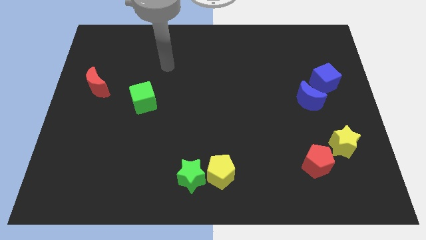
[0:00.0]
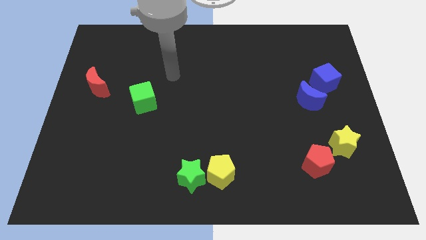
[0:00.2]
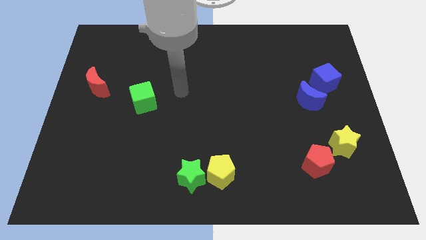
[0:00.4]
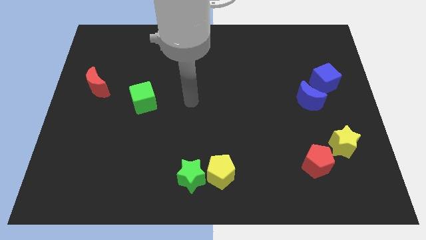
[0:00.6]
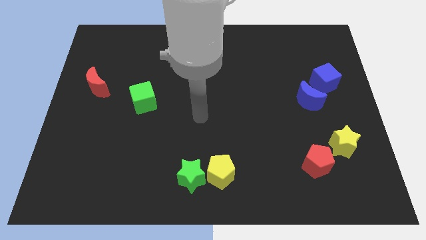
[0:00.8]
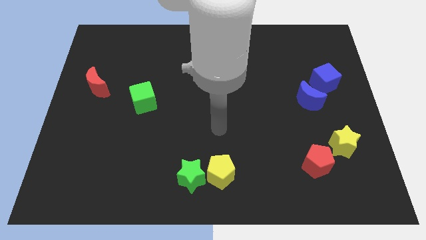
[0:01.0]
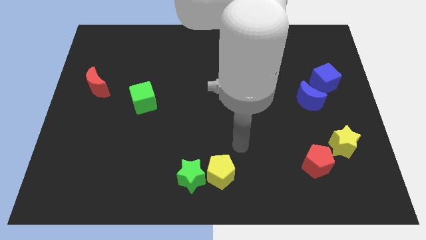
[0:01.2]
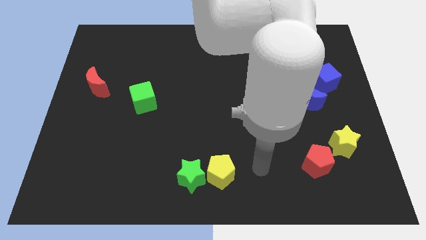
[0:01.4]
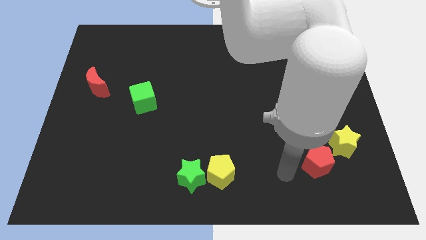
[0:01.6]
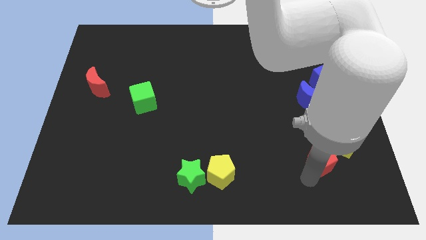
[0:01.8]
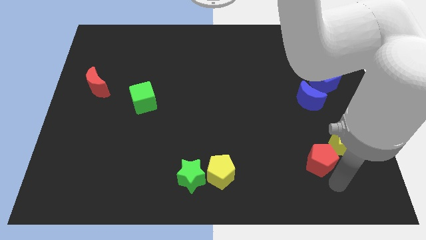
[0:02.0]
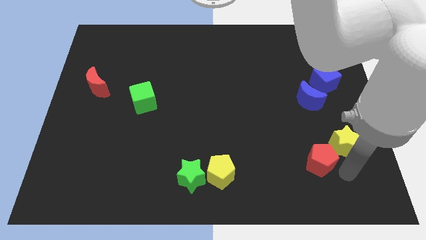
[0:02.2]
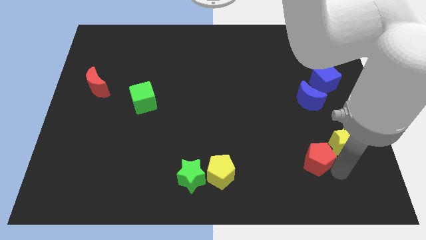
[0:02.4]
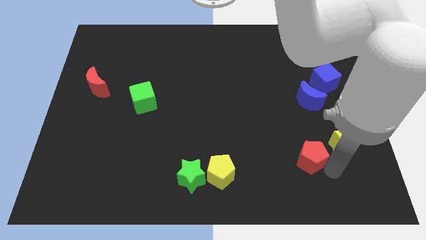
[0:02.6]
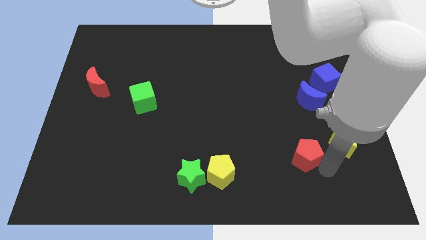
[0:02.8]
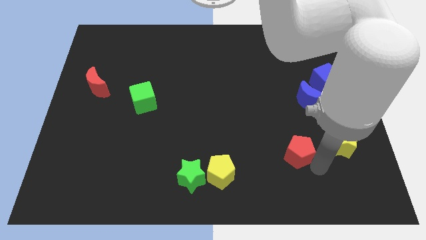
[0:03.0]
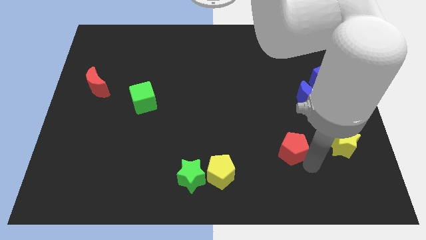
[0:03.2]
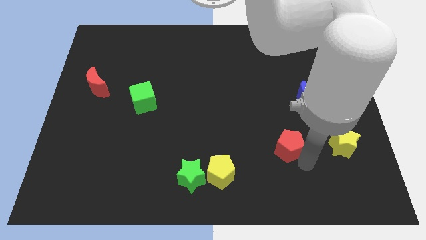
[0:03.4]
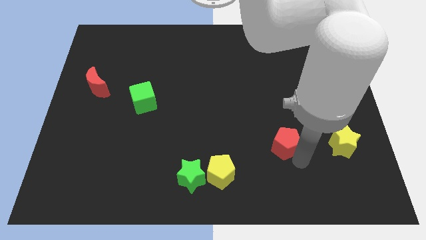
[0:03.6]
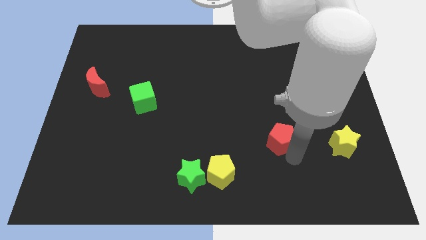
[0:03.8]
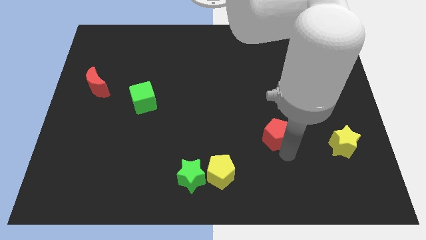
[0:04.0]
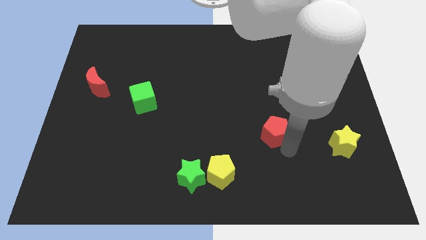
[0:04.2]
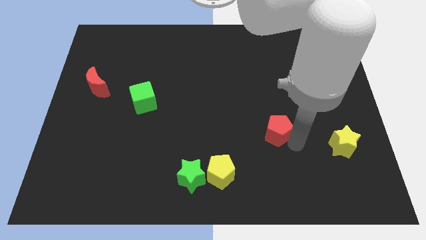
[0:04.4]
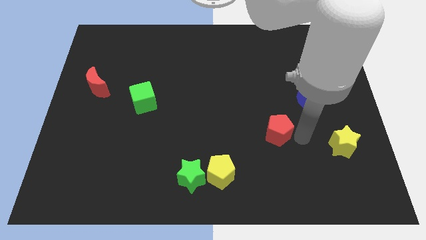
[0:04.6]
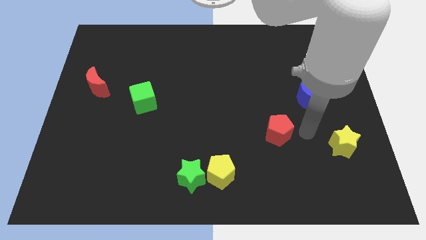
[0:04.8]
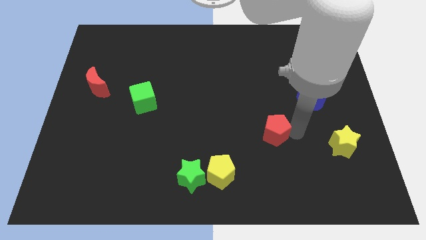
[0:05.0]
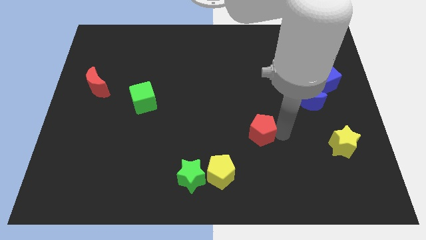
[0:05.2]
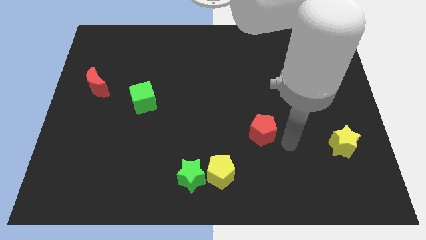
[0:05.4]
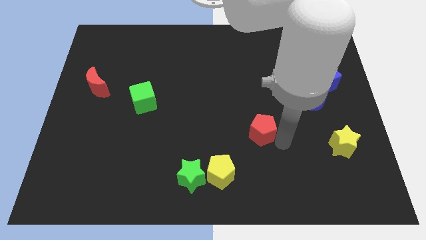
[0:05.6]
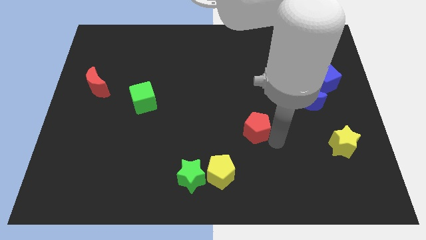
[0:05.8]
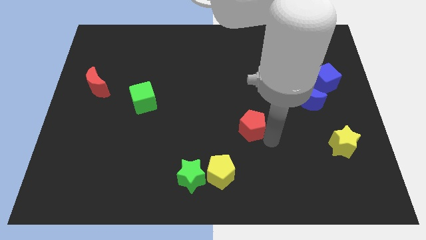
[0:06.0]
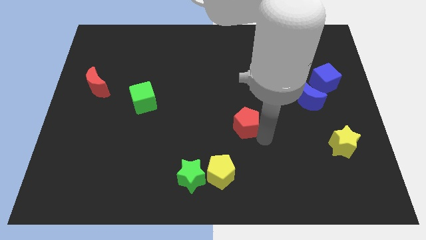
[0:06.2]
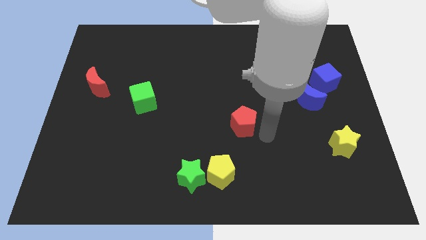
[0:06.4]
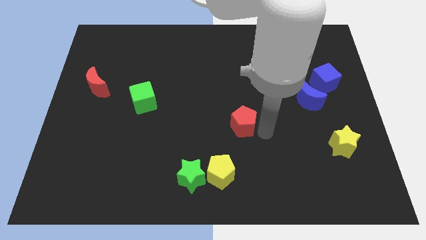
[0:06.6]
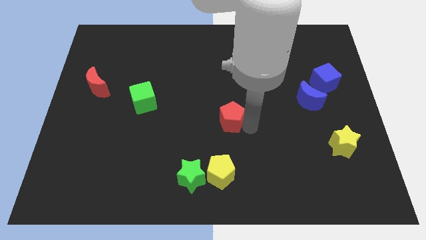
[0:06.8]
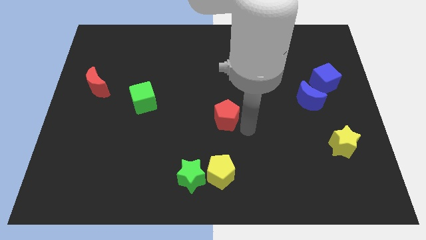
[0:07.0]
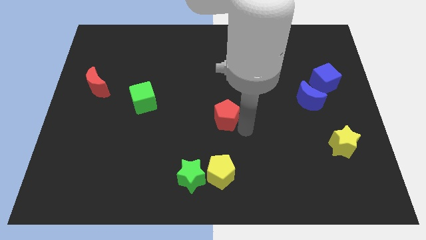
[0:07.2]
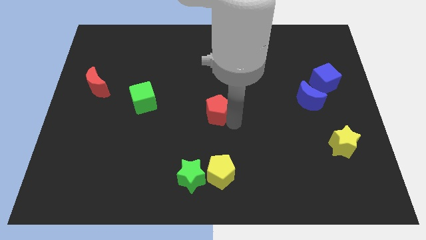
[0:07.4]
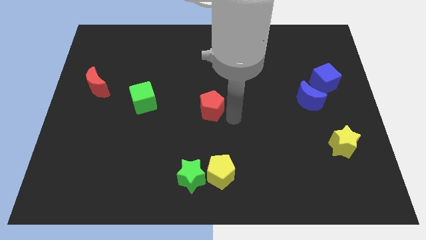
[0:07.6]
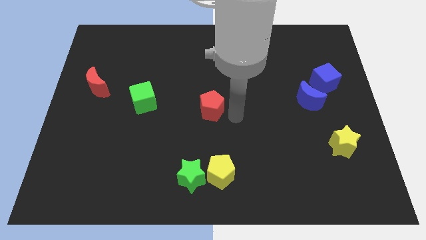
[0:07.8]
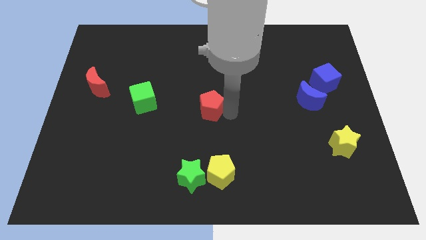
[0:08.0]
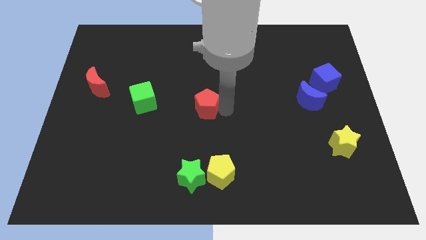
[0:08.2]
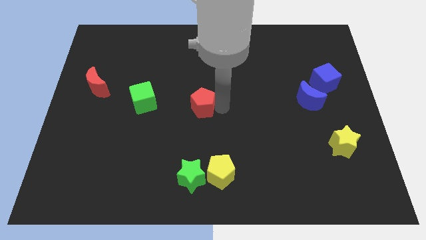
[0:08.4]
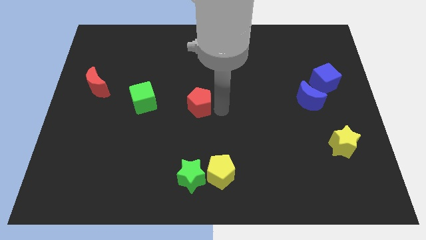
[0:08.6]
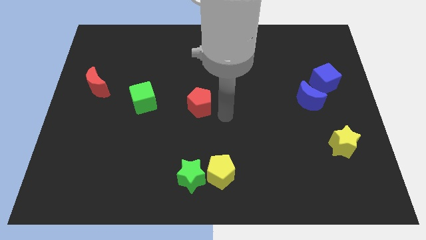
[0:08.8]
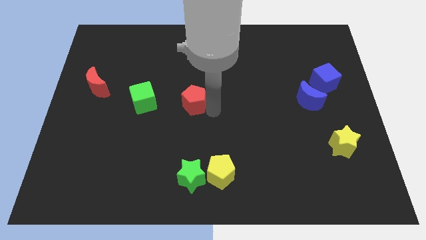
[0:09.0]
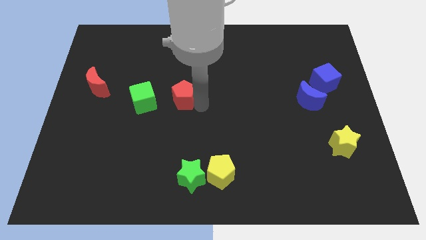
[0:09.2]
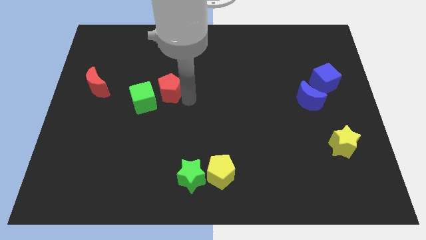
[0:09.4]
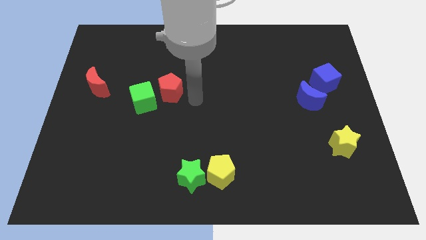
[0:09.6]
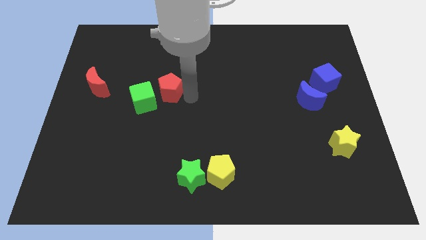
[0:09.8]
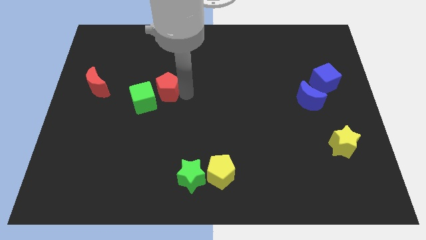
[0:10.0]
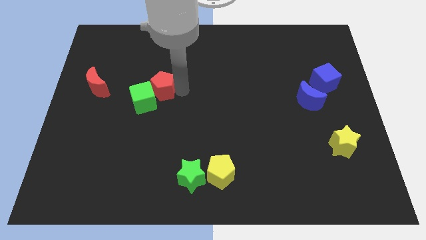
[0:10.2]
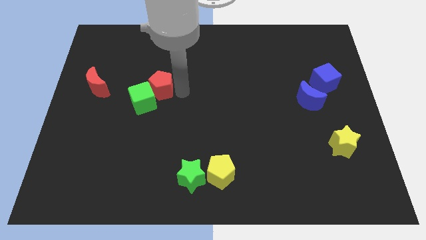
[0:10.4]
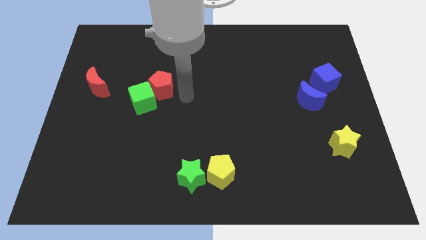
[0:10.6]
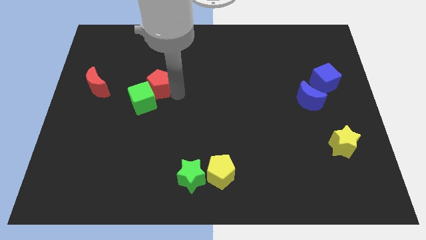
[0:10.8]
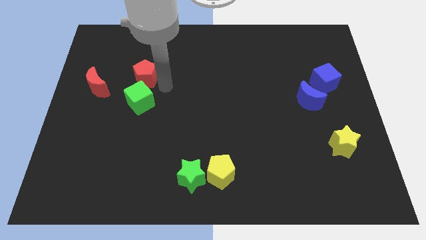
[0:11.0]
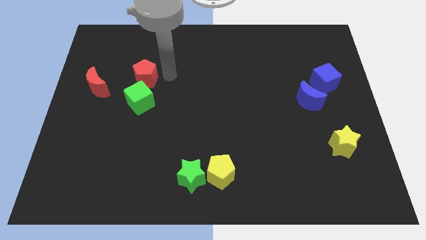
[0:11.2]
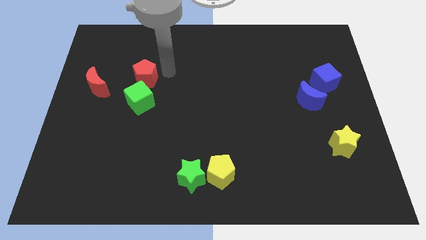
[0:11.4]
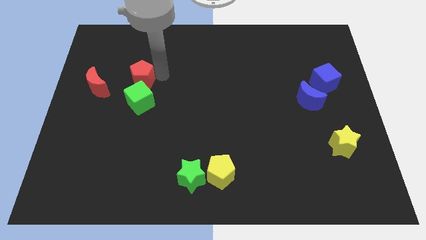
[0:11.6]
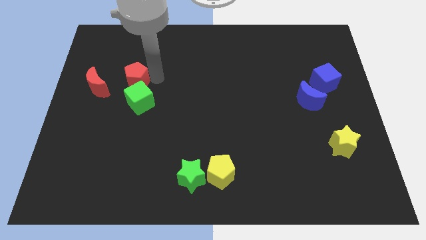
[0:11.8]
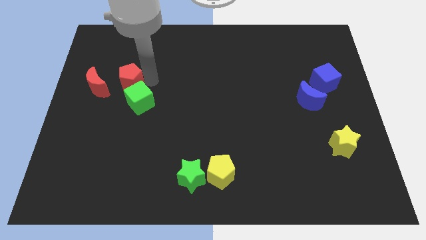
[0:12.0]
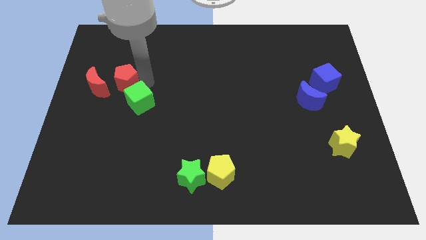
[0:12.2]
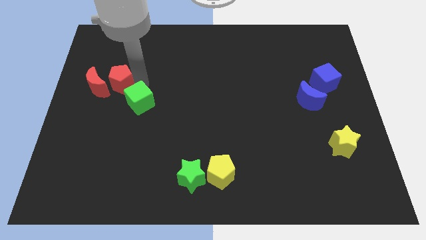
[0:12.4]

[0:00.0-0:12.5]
push the red pentagon towards the red moon

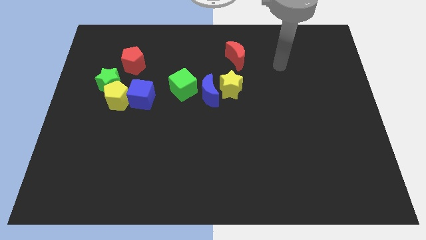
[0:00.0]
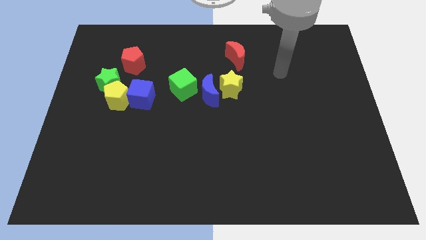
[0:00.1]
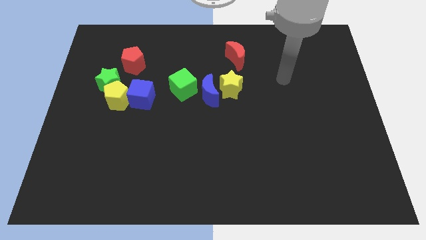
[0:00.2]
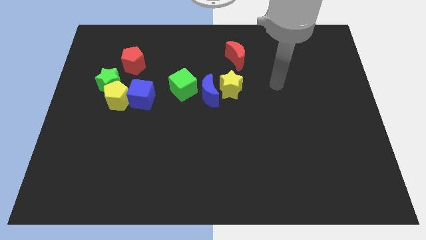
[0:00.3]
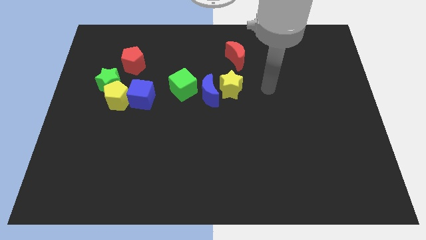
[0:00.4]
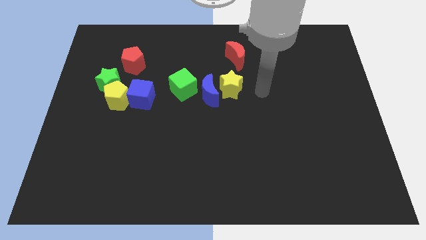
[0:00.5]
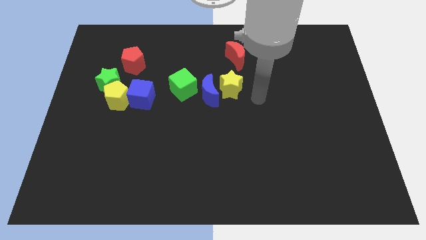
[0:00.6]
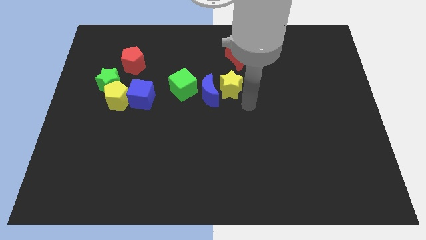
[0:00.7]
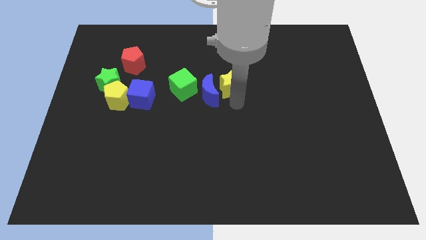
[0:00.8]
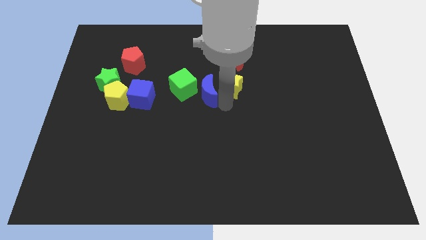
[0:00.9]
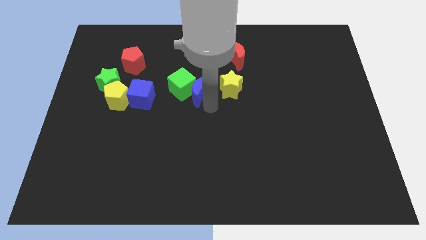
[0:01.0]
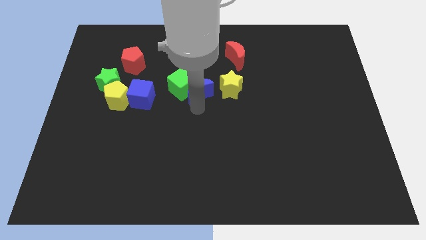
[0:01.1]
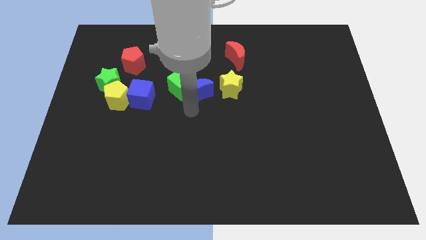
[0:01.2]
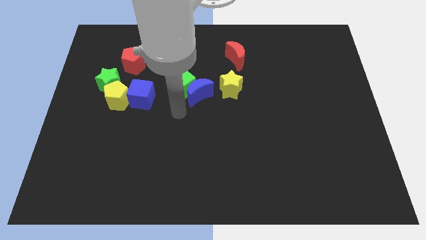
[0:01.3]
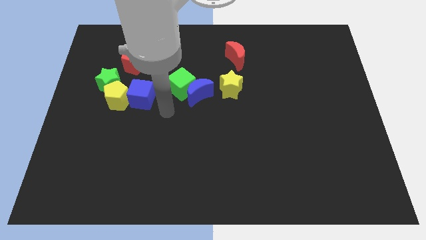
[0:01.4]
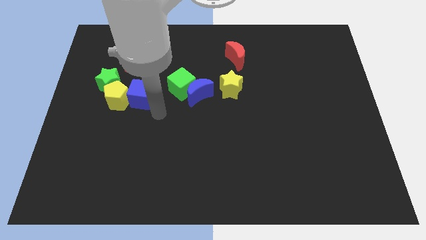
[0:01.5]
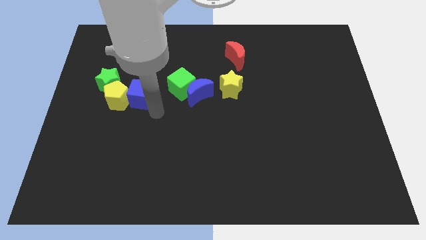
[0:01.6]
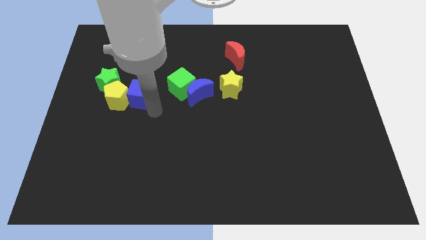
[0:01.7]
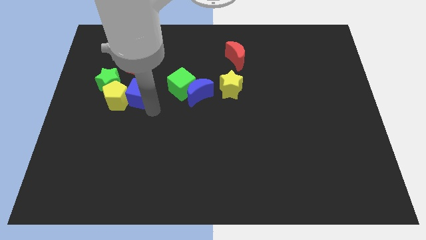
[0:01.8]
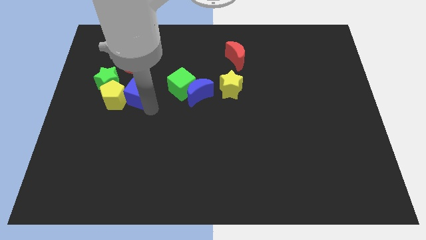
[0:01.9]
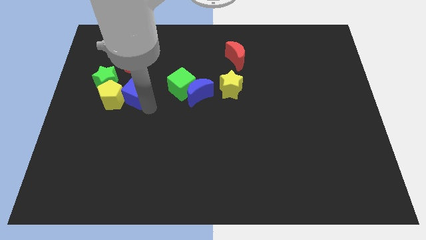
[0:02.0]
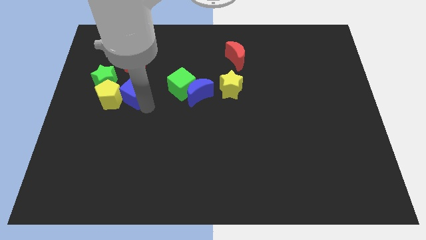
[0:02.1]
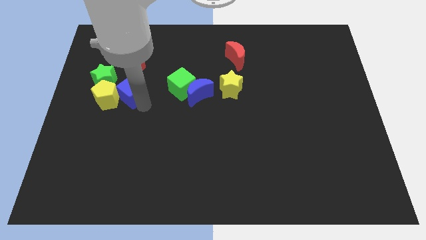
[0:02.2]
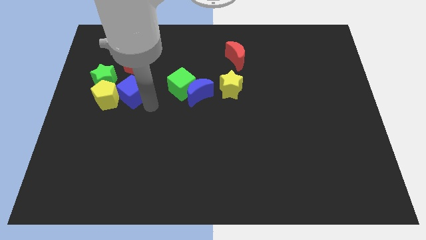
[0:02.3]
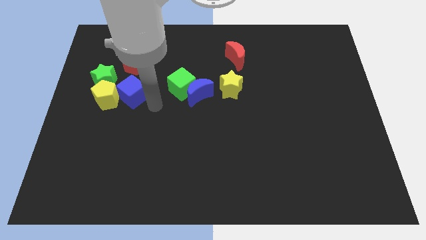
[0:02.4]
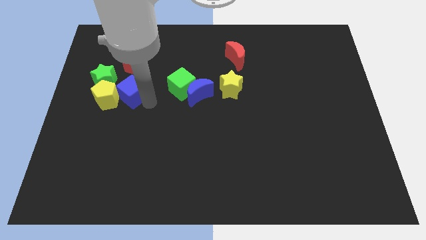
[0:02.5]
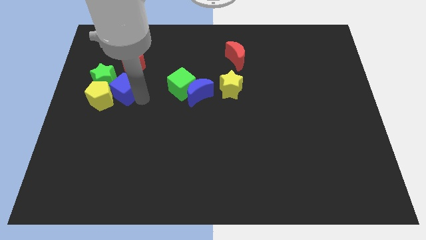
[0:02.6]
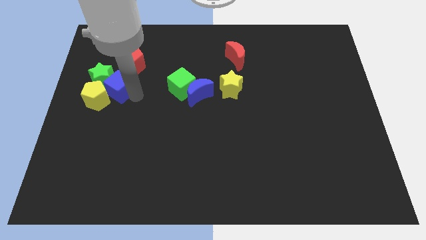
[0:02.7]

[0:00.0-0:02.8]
put the blue cube to the green star
